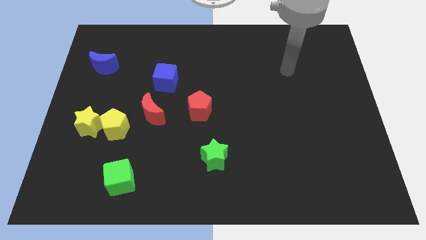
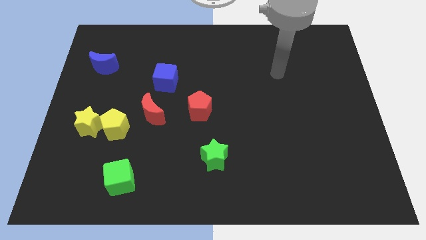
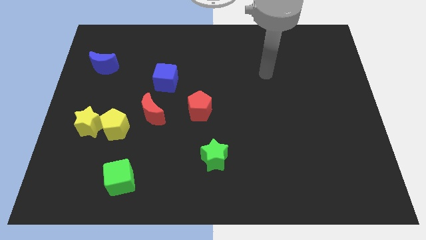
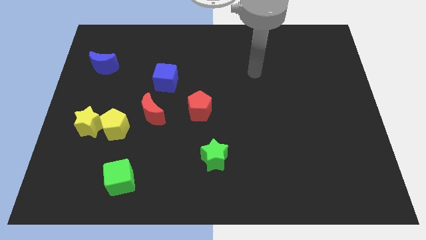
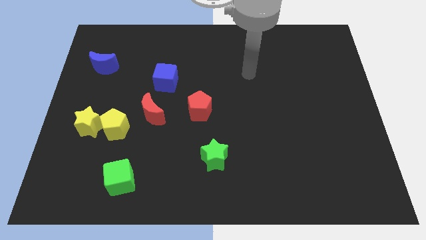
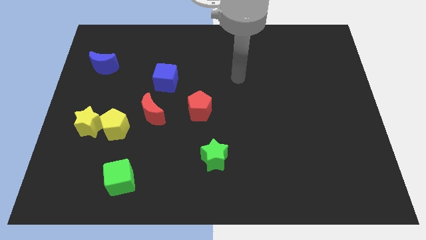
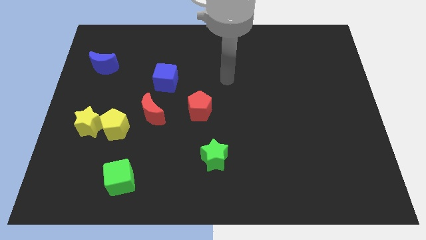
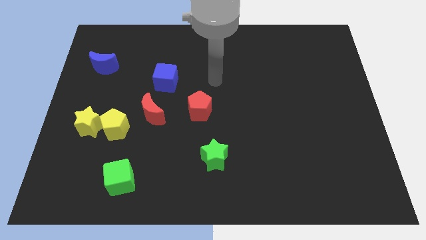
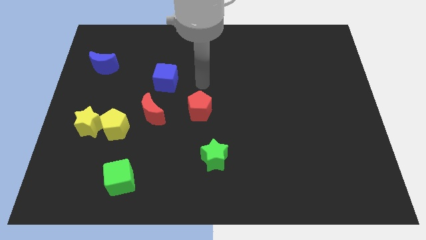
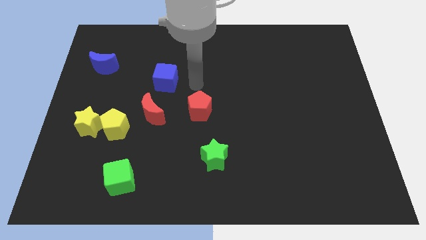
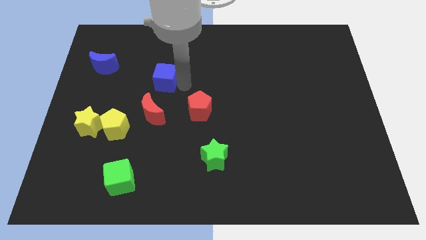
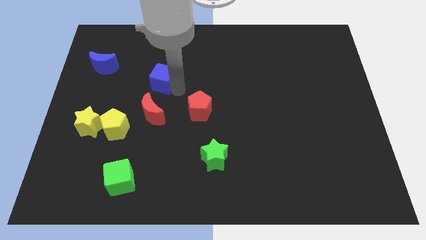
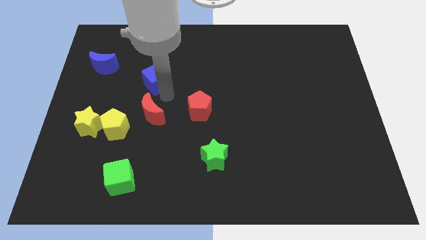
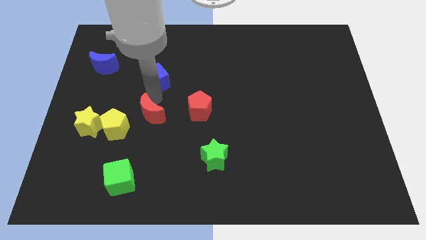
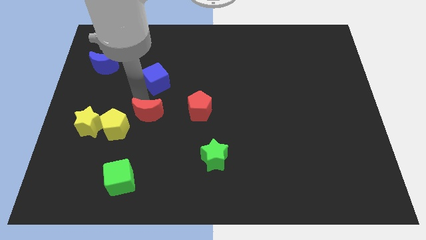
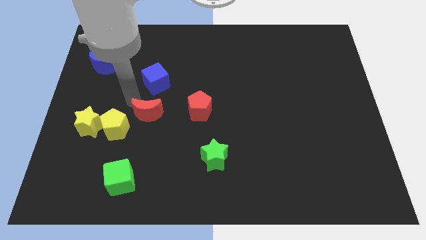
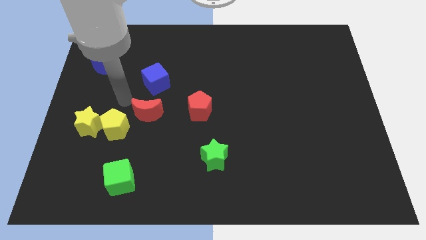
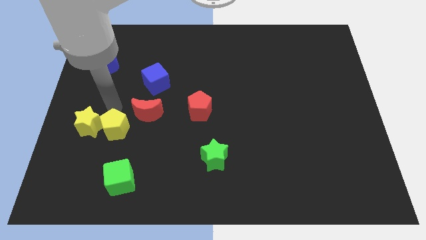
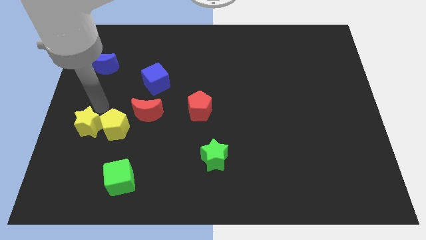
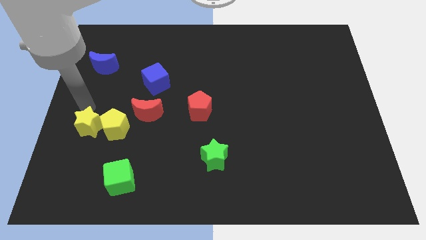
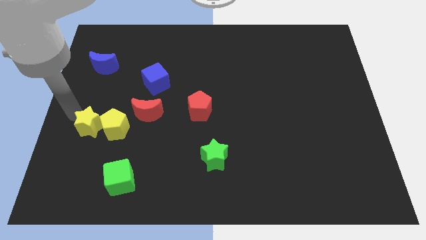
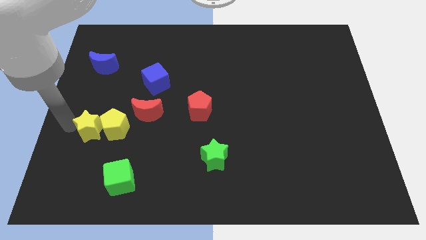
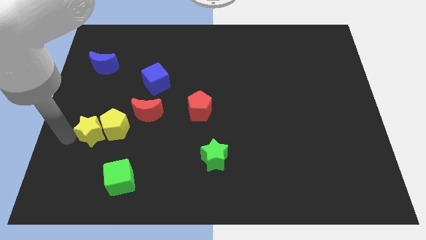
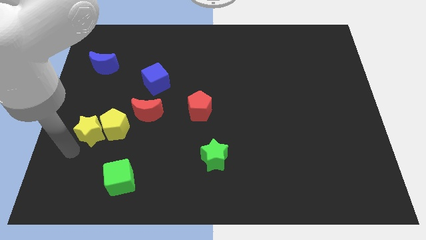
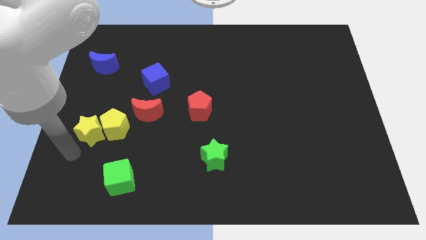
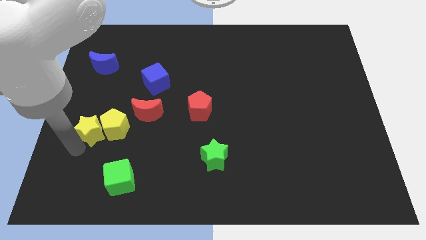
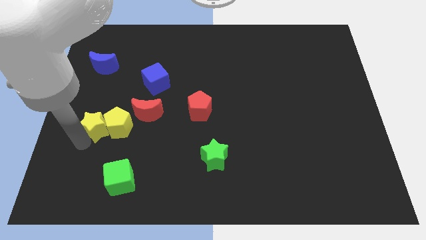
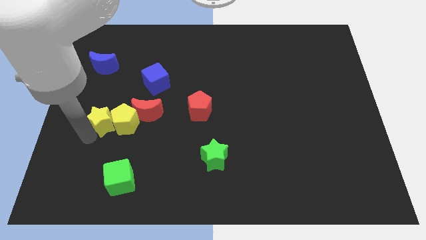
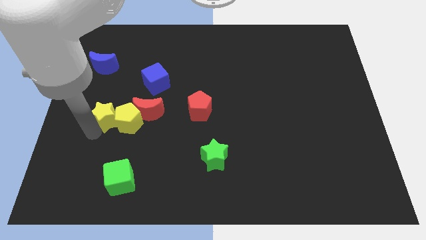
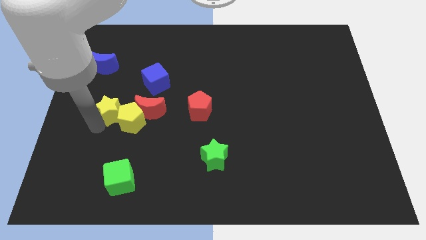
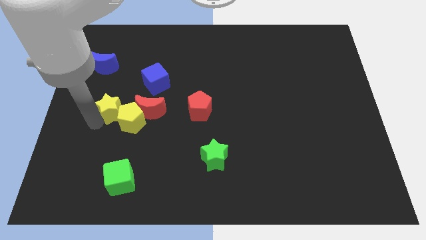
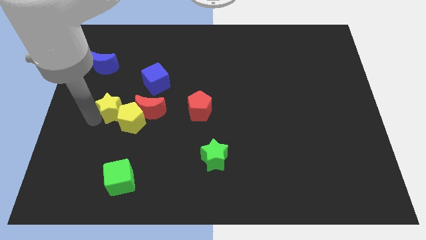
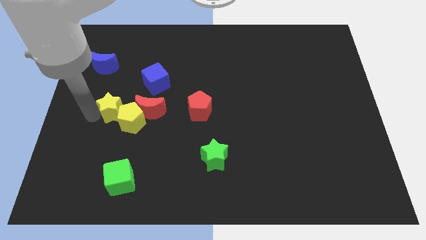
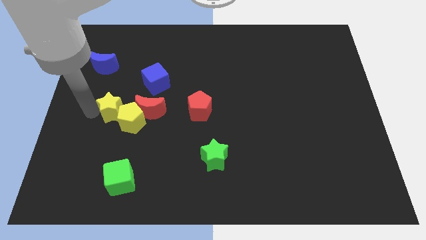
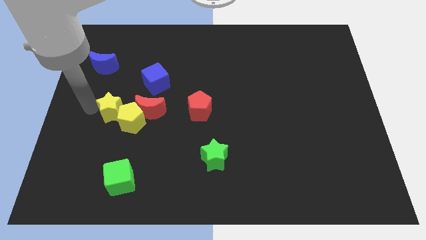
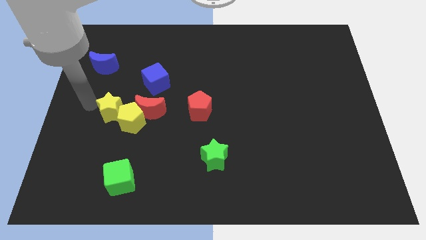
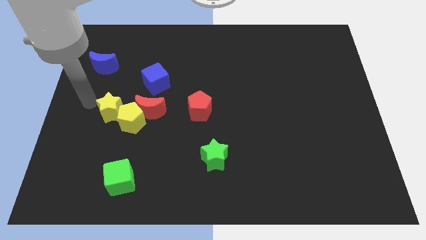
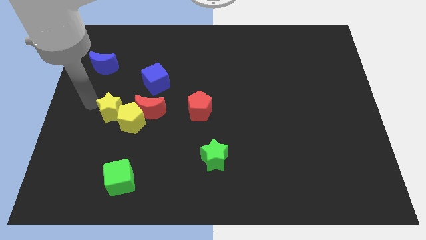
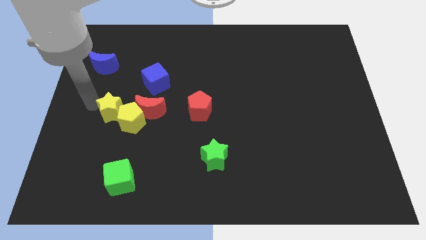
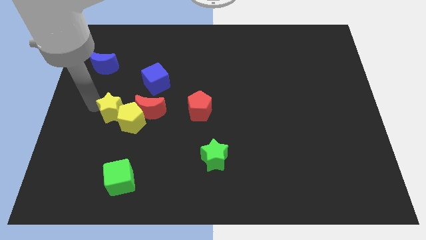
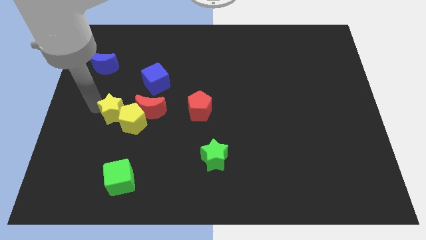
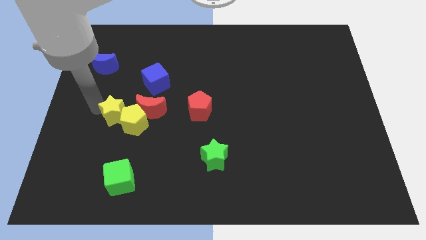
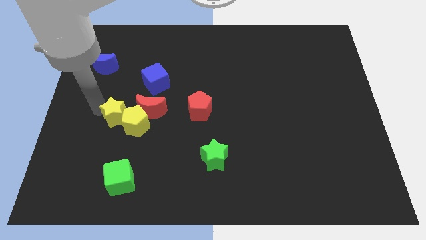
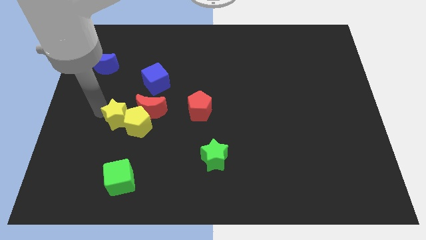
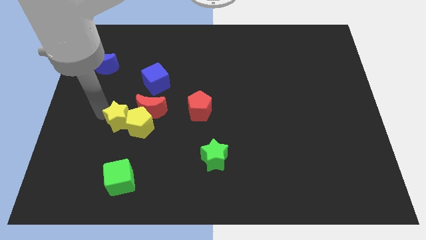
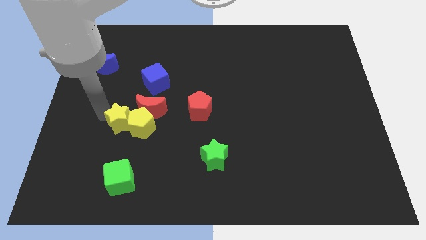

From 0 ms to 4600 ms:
slide the yellow star to the right a little bit

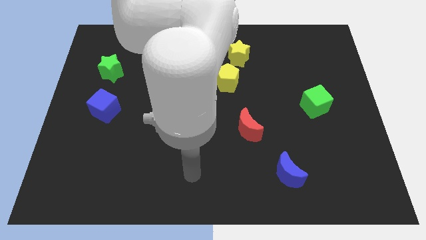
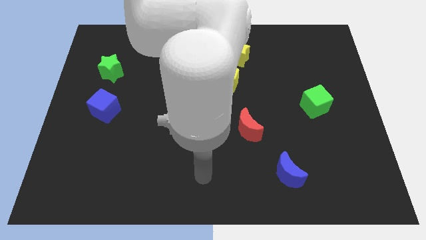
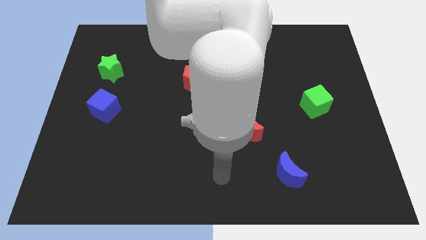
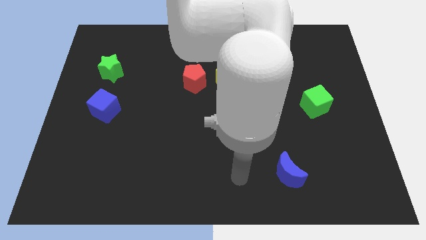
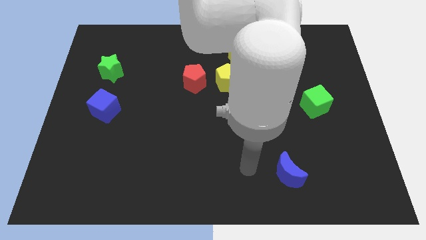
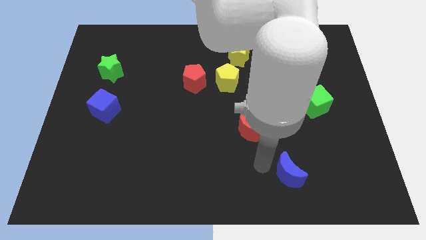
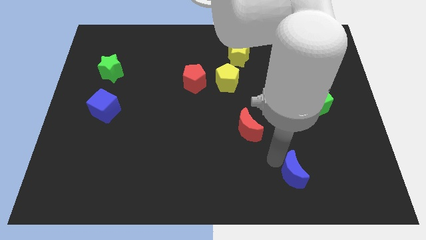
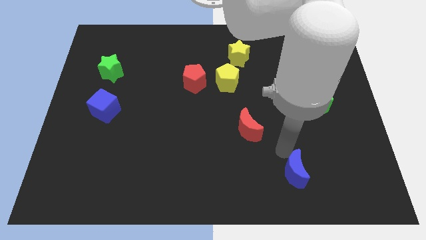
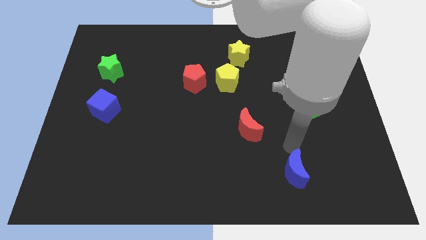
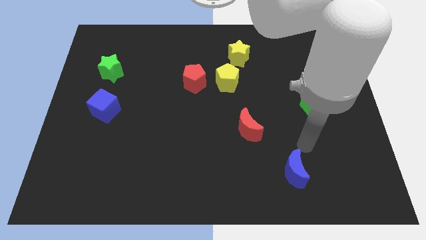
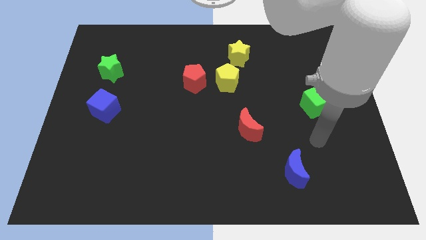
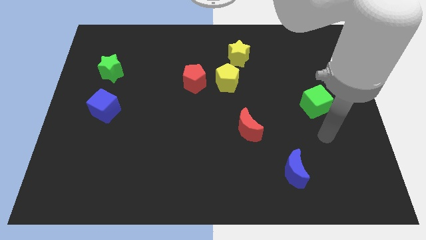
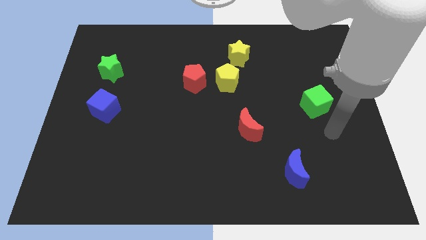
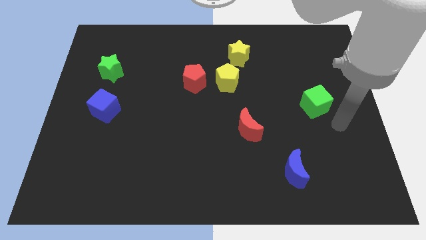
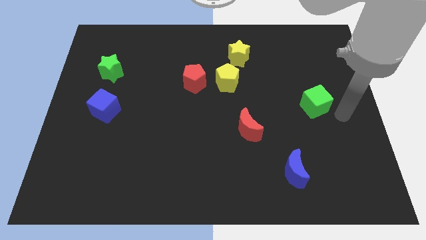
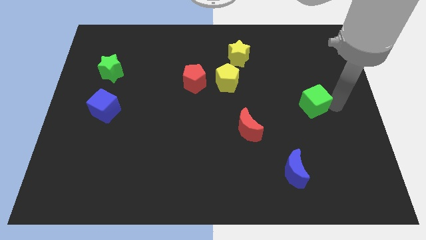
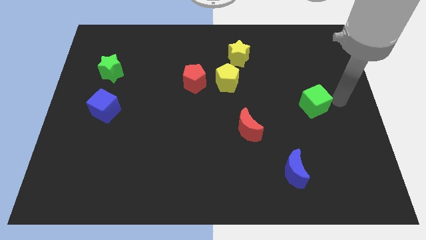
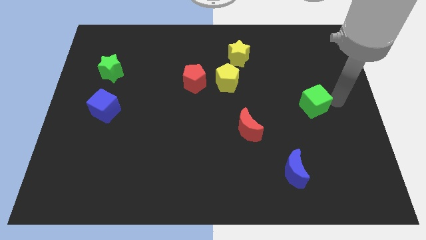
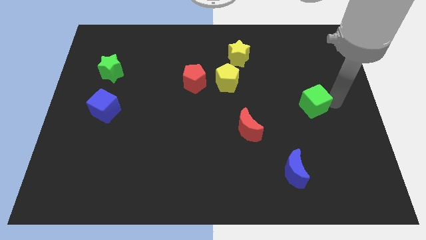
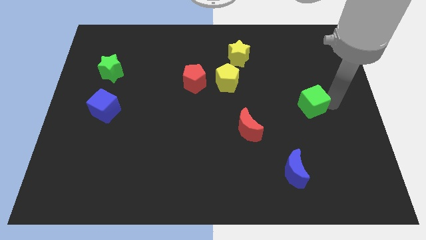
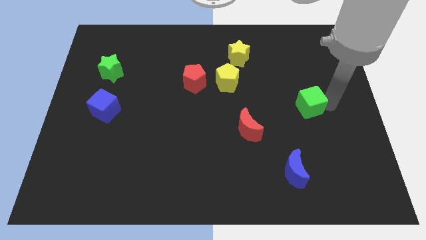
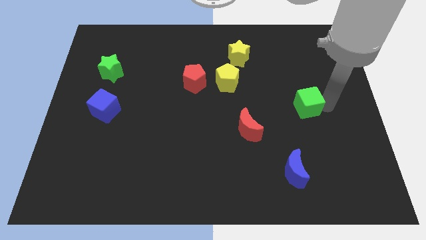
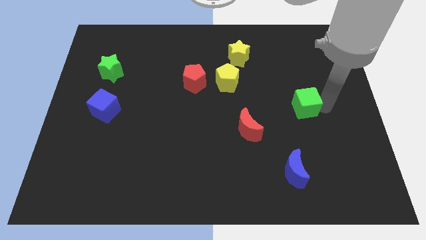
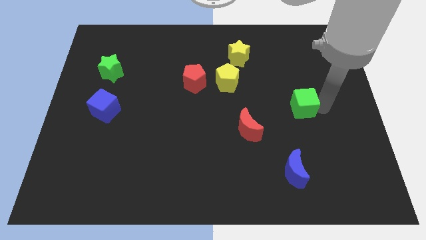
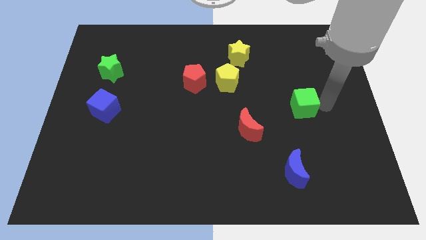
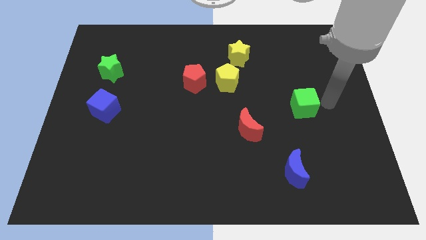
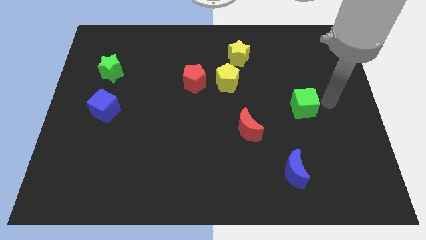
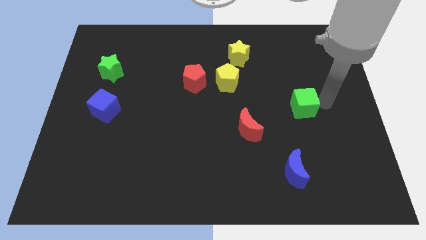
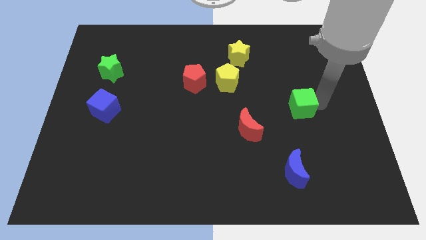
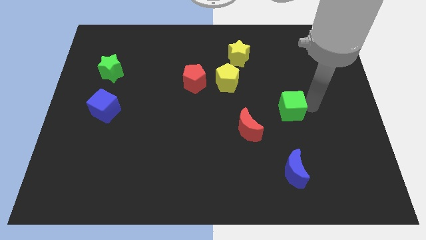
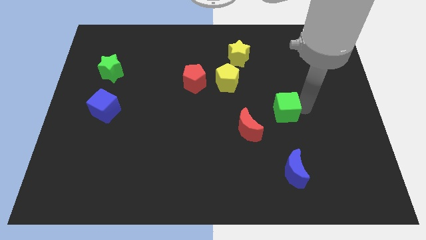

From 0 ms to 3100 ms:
slightly push the green cube left

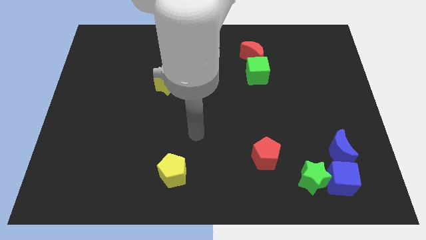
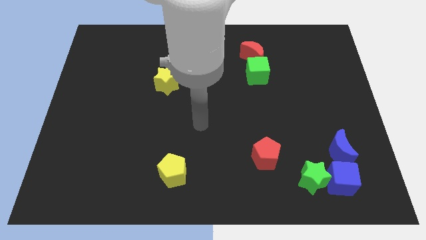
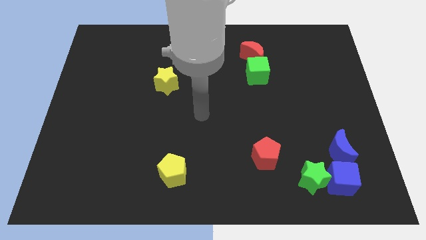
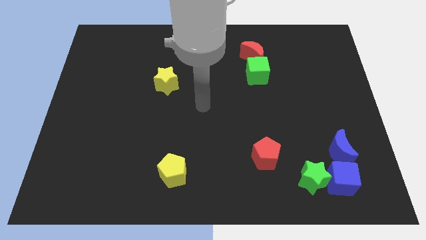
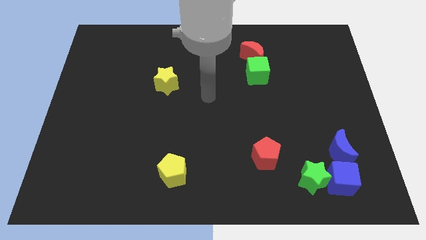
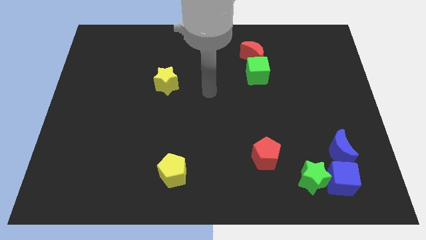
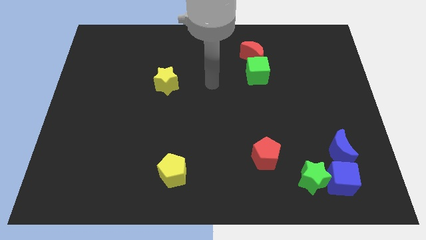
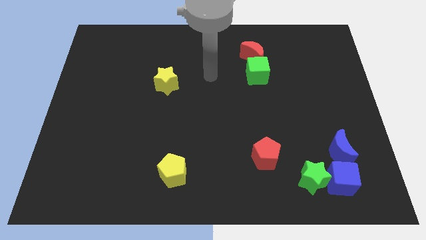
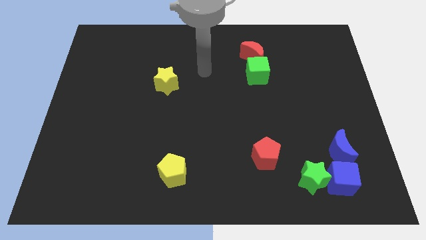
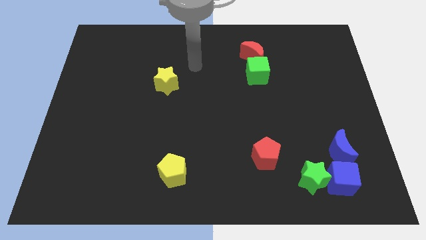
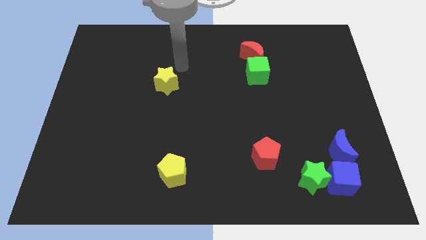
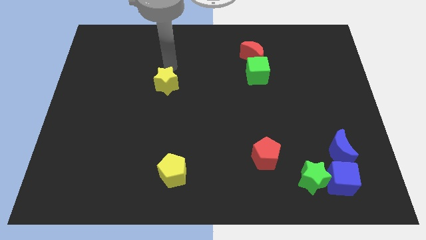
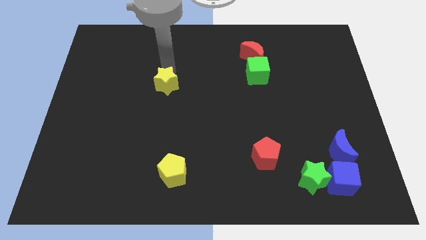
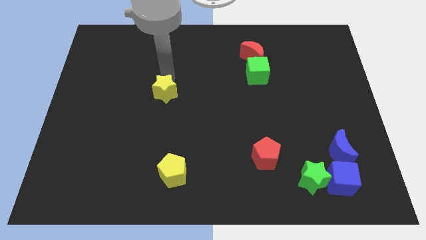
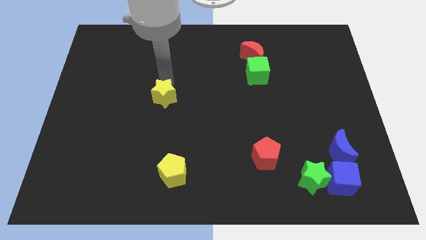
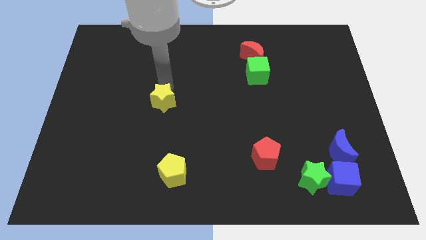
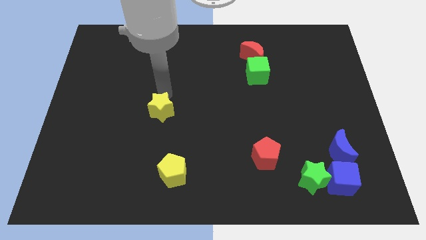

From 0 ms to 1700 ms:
slightly push the yellow star down
